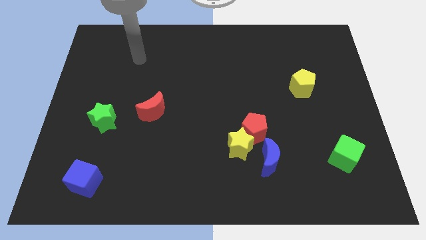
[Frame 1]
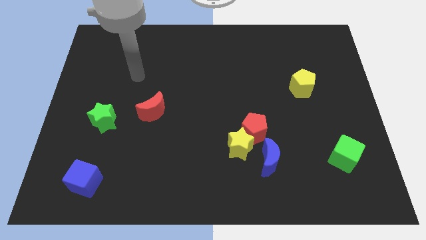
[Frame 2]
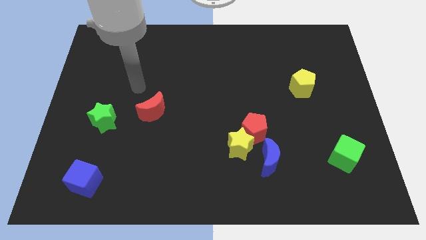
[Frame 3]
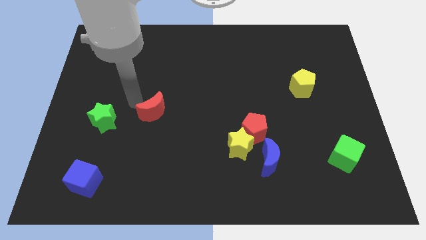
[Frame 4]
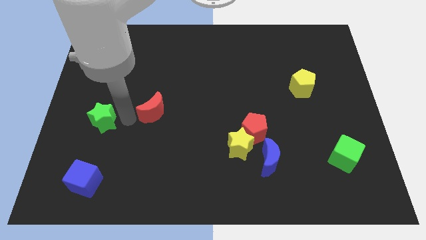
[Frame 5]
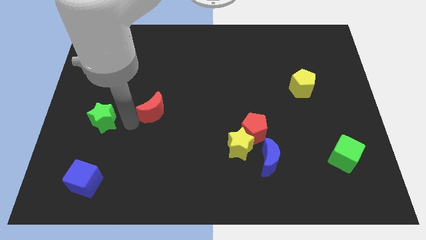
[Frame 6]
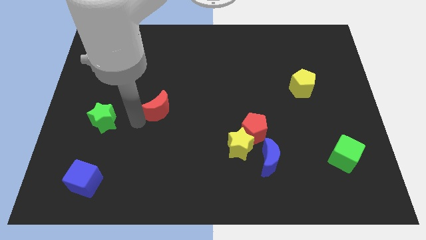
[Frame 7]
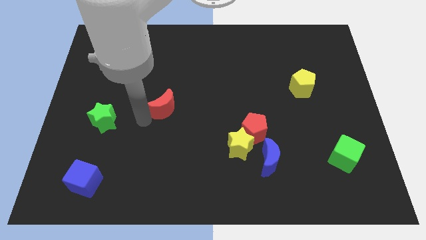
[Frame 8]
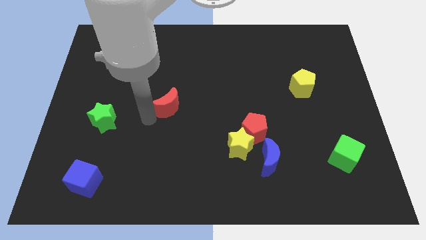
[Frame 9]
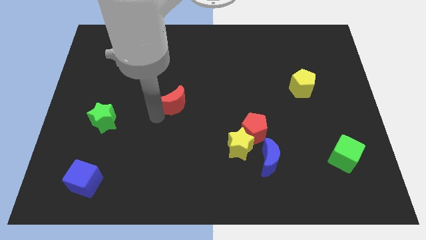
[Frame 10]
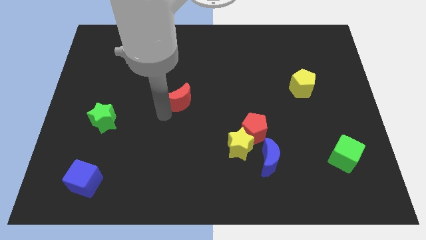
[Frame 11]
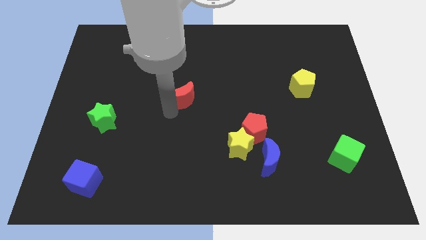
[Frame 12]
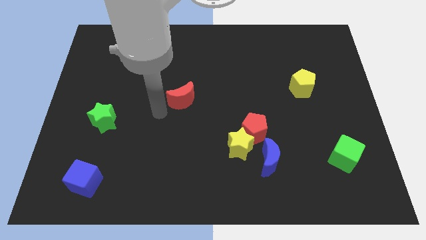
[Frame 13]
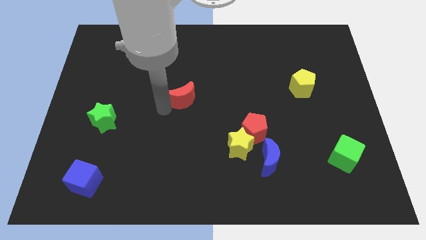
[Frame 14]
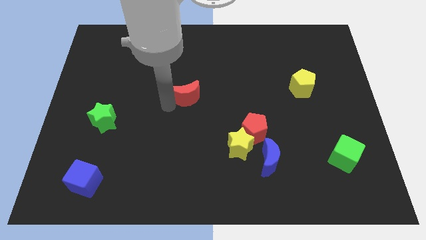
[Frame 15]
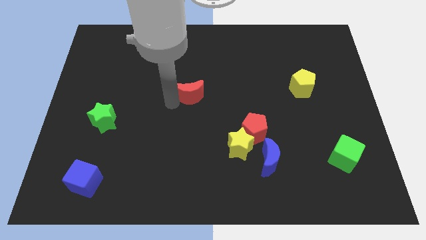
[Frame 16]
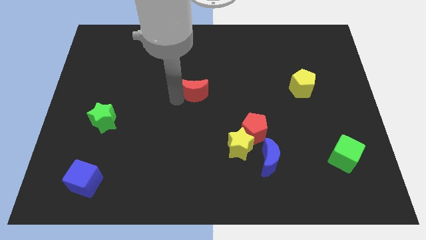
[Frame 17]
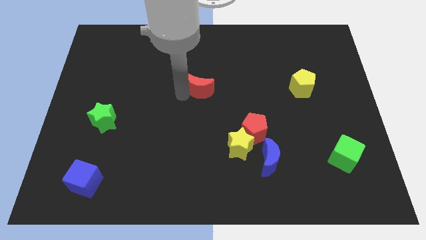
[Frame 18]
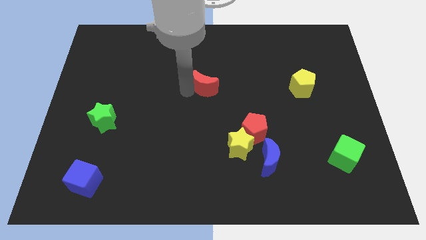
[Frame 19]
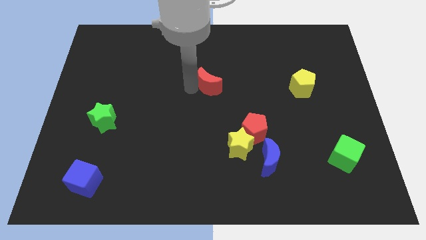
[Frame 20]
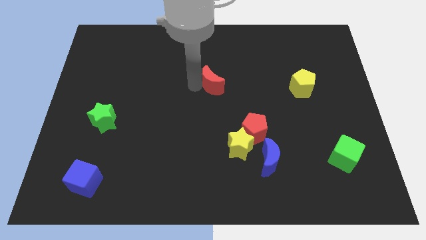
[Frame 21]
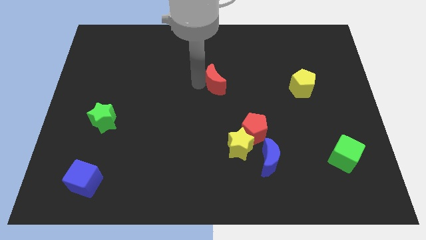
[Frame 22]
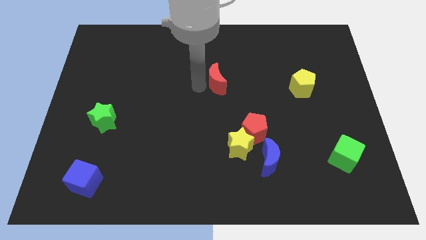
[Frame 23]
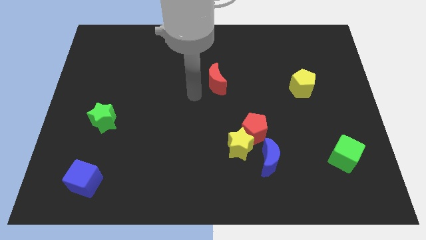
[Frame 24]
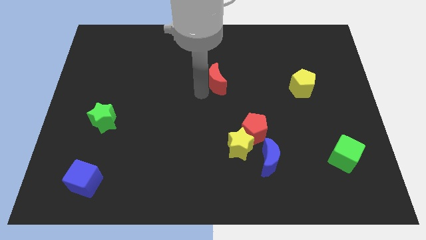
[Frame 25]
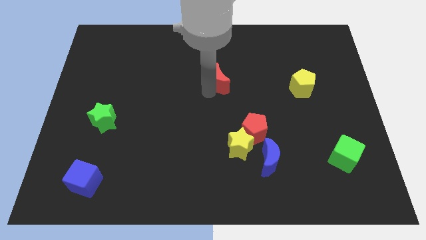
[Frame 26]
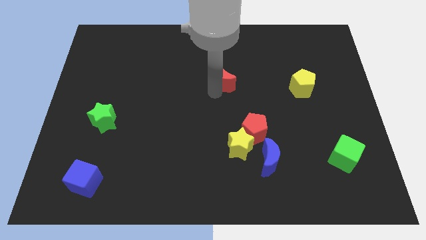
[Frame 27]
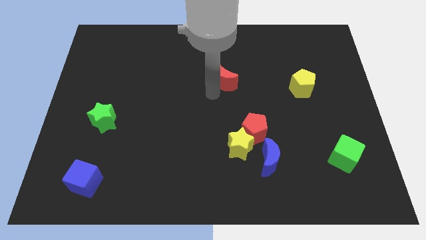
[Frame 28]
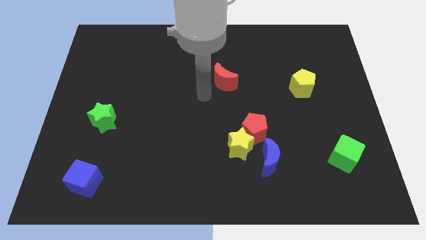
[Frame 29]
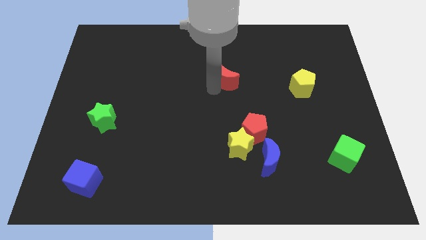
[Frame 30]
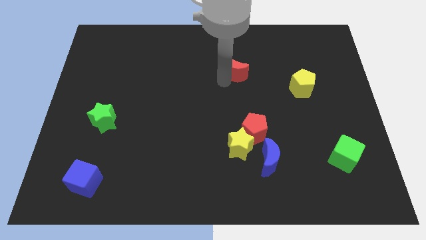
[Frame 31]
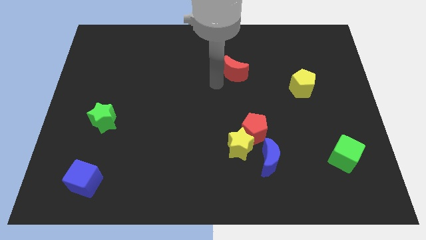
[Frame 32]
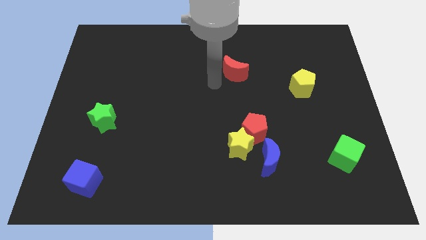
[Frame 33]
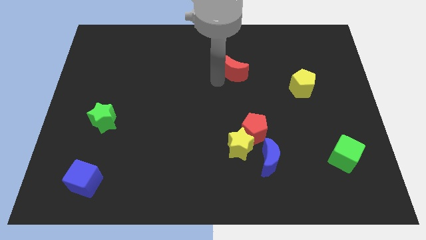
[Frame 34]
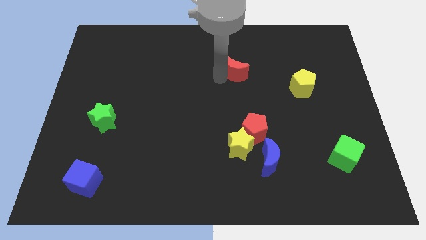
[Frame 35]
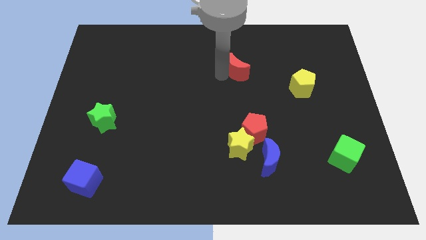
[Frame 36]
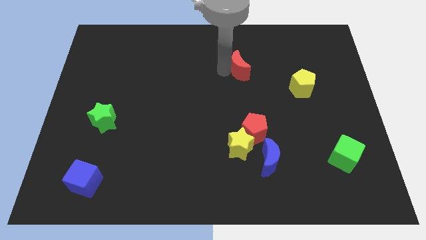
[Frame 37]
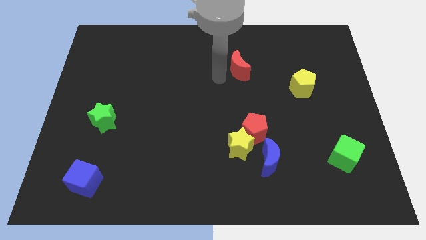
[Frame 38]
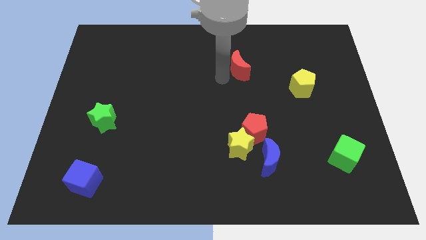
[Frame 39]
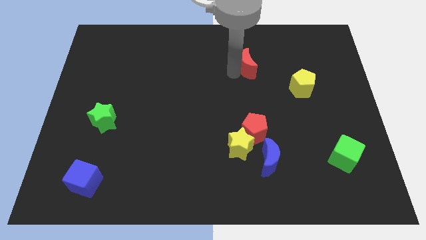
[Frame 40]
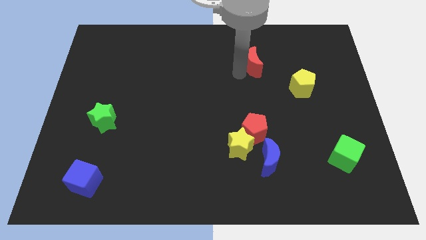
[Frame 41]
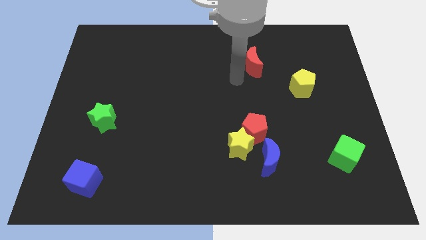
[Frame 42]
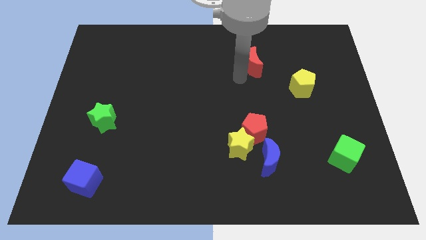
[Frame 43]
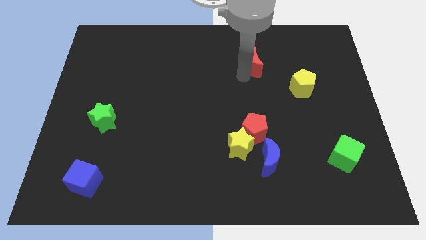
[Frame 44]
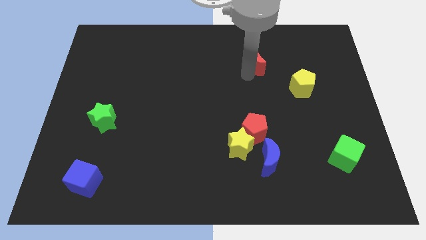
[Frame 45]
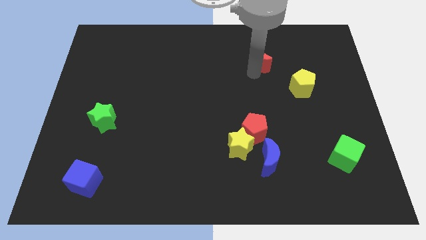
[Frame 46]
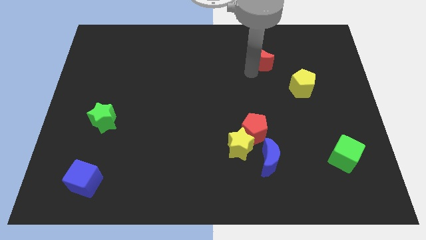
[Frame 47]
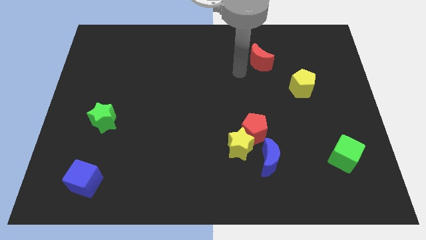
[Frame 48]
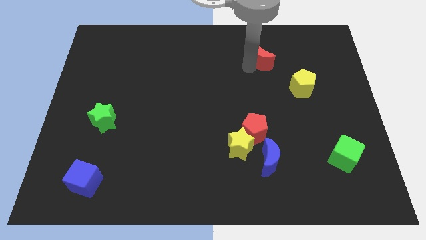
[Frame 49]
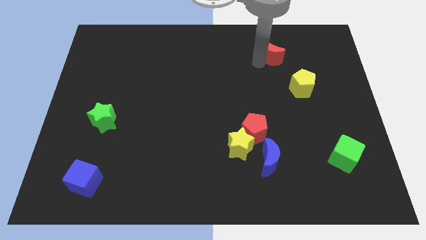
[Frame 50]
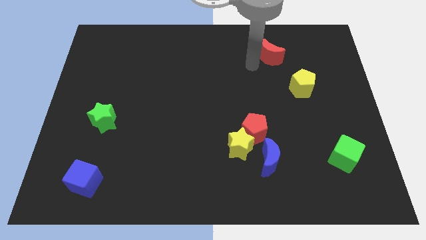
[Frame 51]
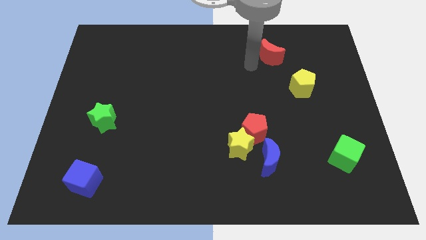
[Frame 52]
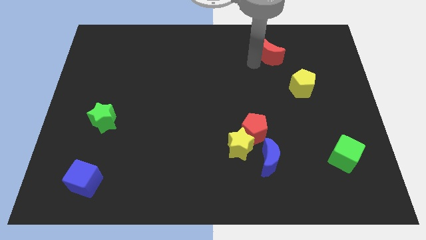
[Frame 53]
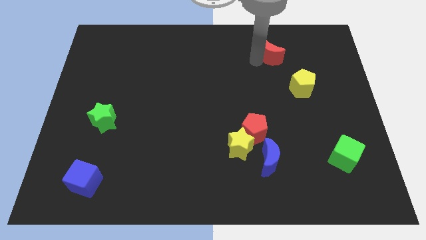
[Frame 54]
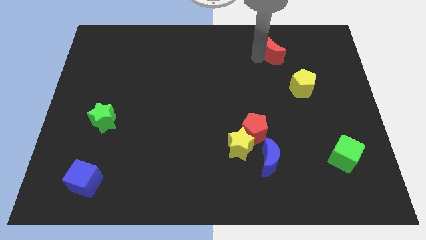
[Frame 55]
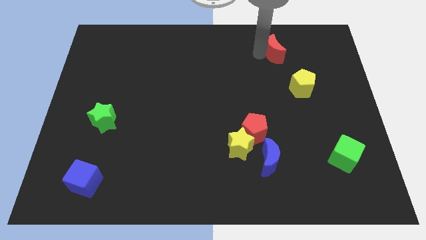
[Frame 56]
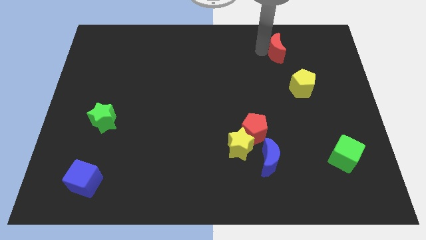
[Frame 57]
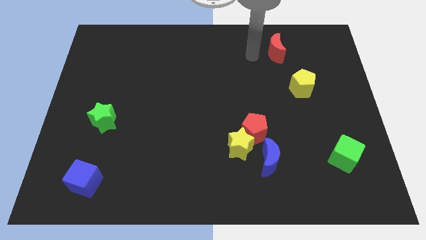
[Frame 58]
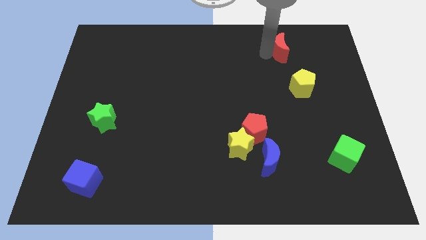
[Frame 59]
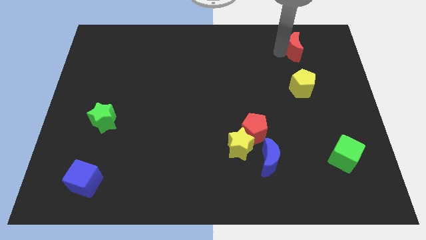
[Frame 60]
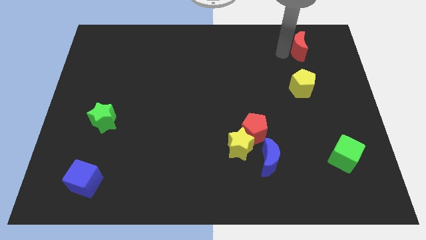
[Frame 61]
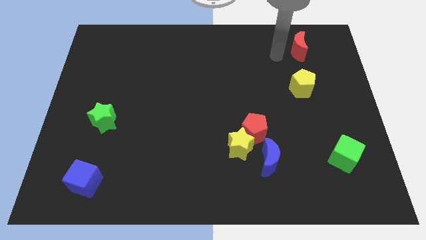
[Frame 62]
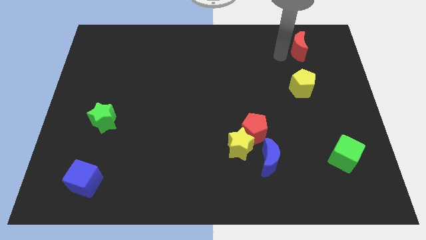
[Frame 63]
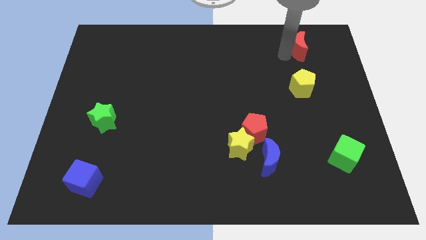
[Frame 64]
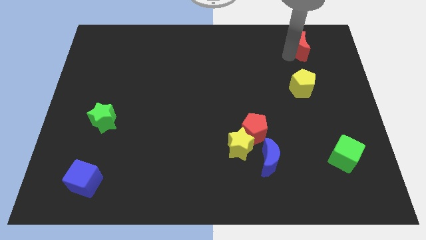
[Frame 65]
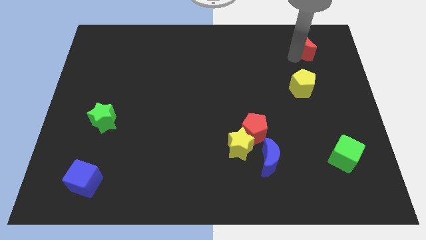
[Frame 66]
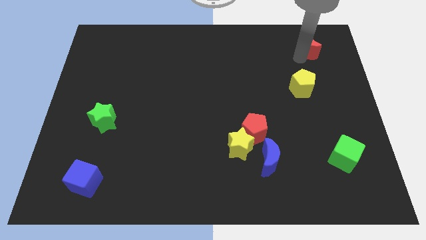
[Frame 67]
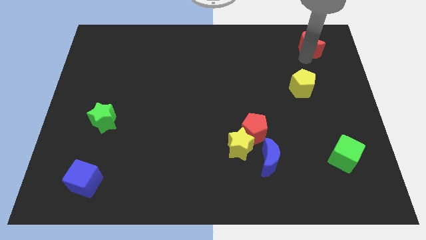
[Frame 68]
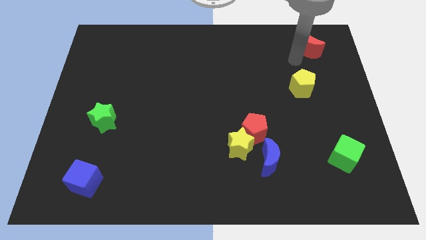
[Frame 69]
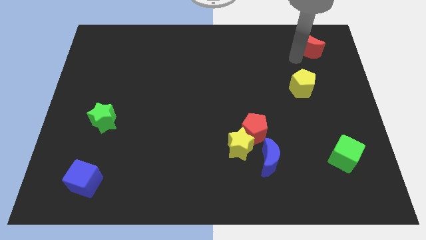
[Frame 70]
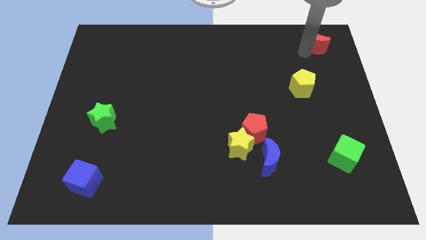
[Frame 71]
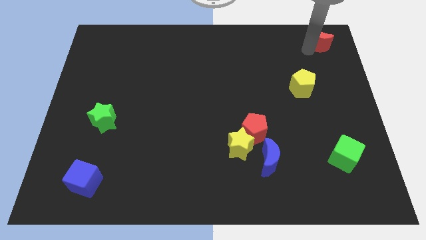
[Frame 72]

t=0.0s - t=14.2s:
slide the red moon to the upper right corner

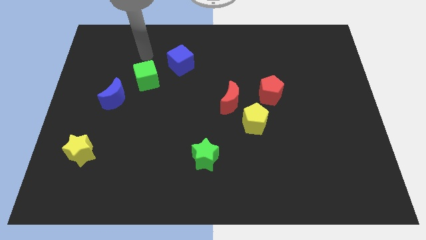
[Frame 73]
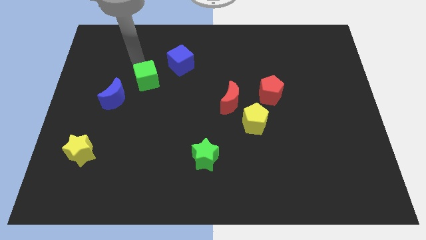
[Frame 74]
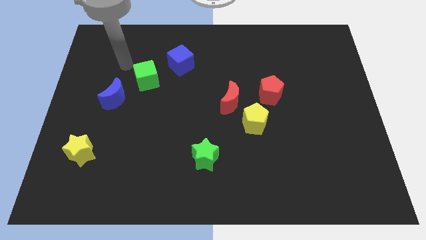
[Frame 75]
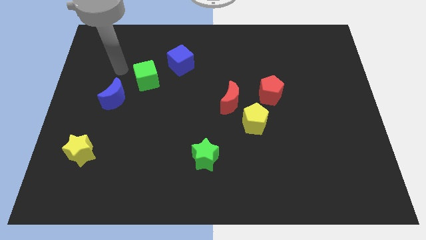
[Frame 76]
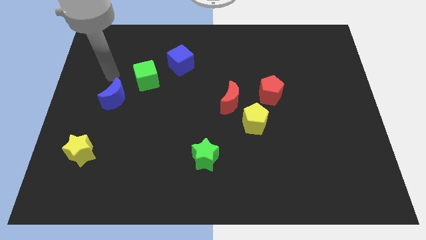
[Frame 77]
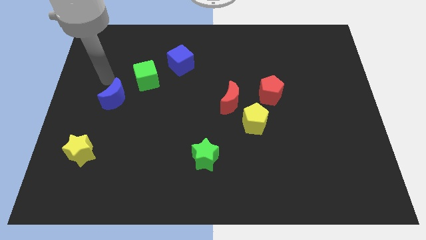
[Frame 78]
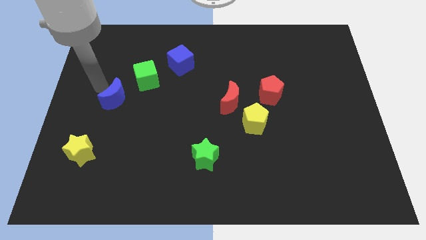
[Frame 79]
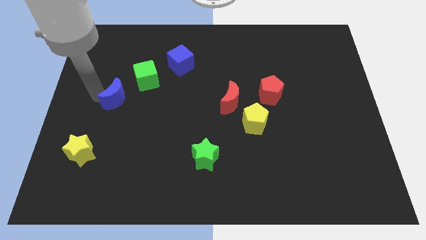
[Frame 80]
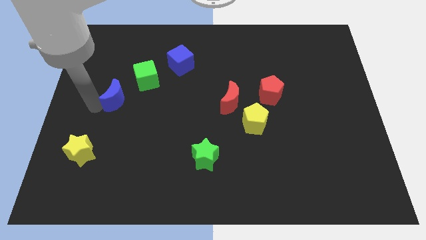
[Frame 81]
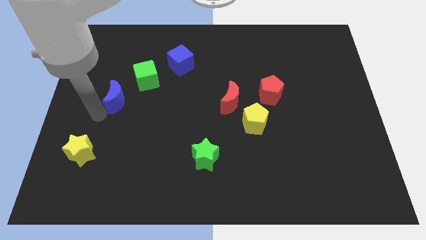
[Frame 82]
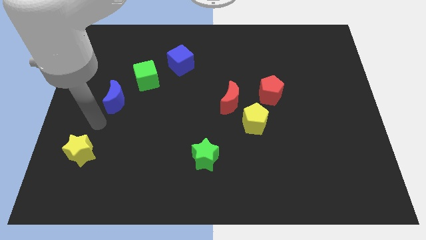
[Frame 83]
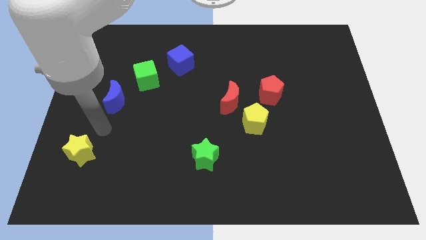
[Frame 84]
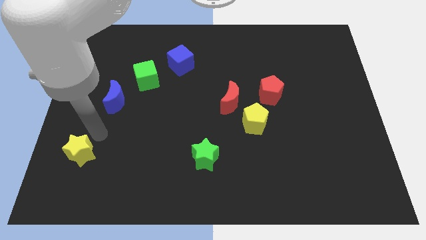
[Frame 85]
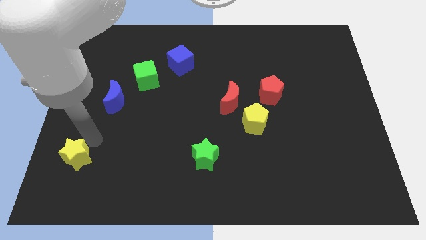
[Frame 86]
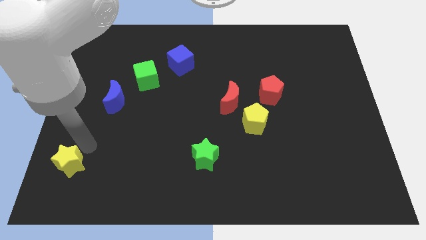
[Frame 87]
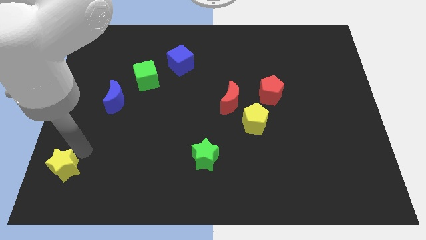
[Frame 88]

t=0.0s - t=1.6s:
move the yellow star to the bottom left of the board
